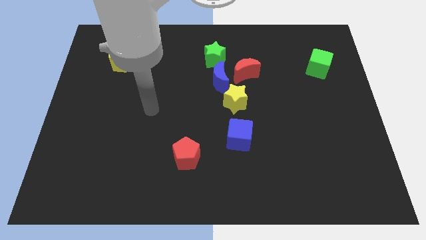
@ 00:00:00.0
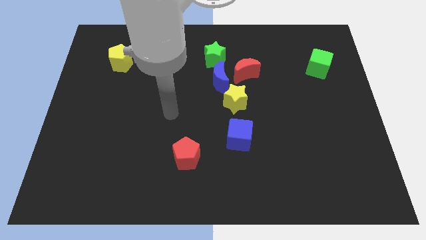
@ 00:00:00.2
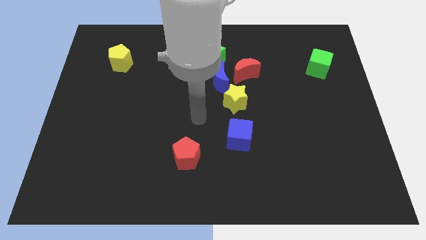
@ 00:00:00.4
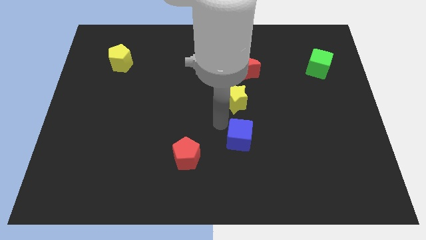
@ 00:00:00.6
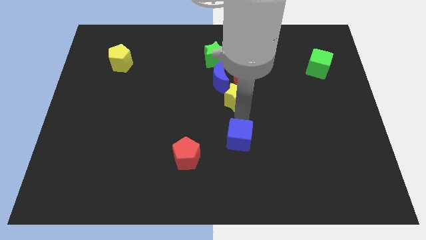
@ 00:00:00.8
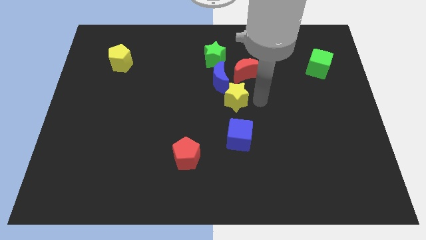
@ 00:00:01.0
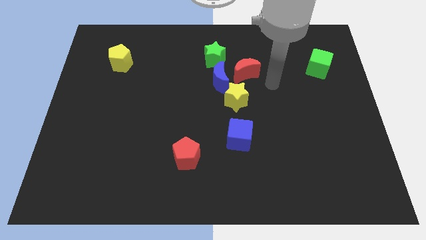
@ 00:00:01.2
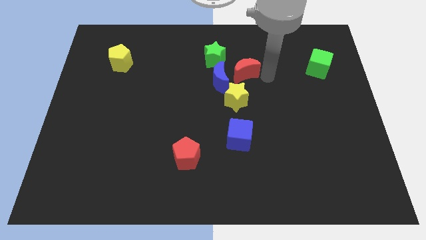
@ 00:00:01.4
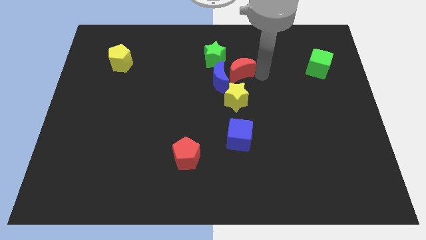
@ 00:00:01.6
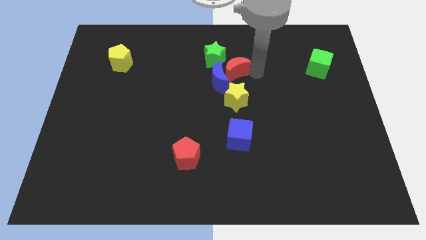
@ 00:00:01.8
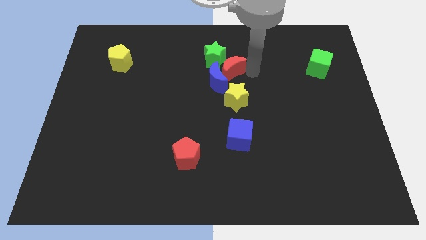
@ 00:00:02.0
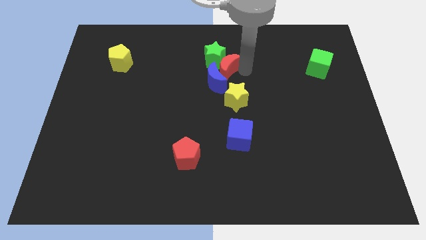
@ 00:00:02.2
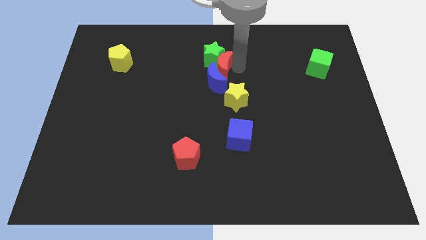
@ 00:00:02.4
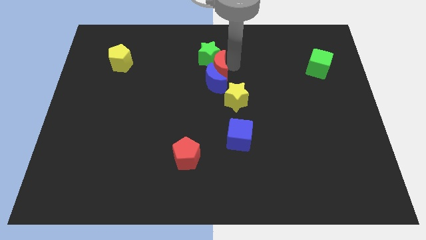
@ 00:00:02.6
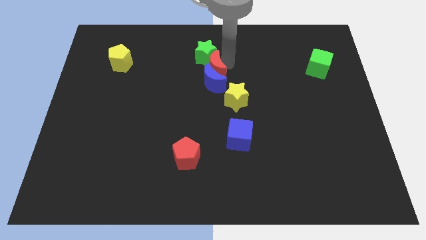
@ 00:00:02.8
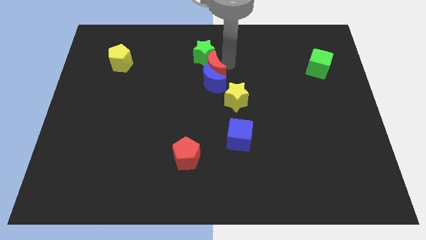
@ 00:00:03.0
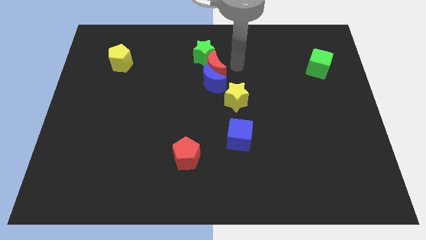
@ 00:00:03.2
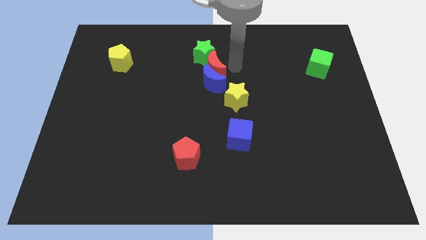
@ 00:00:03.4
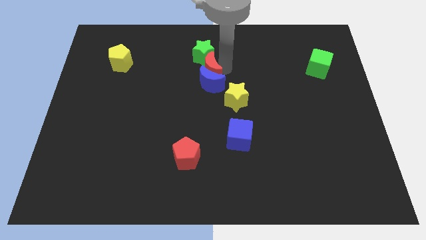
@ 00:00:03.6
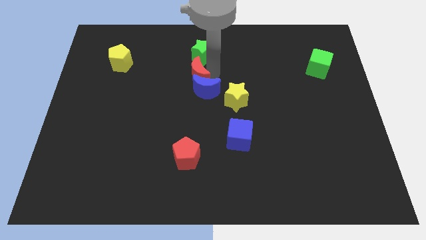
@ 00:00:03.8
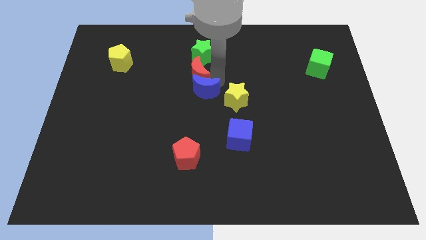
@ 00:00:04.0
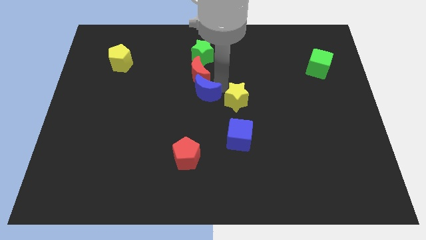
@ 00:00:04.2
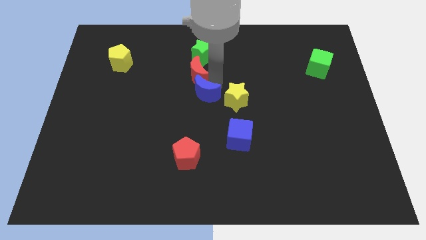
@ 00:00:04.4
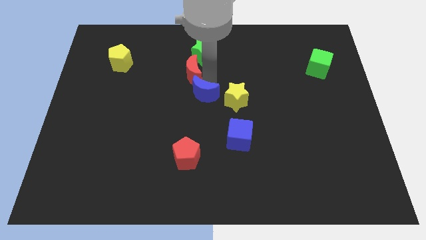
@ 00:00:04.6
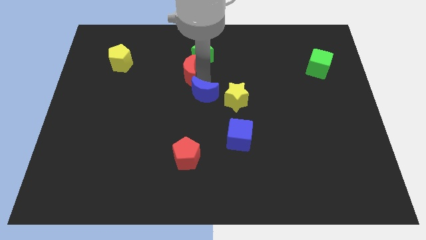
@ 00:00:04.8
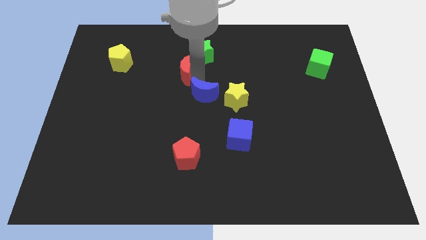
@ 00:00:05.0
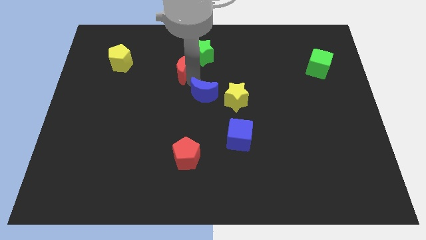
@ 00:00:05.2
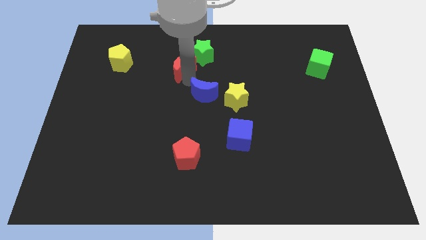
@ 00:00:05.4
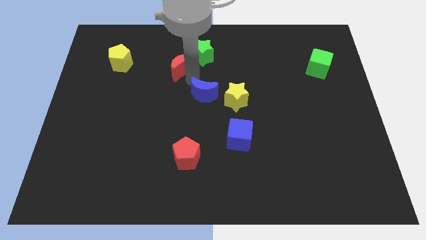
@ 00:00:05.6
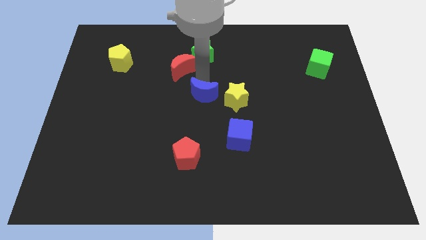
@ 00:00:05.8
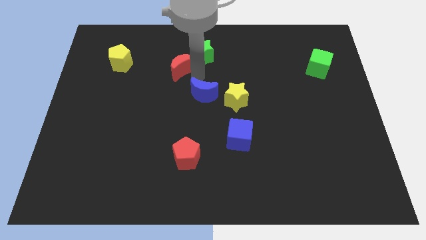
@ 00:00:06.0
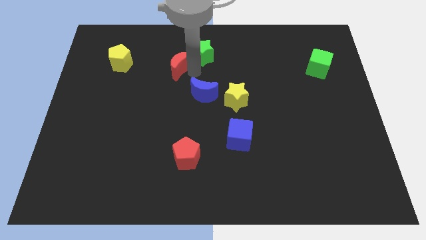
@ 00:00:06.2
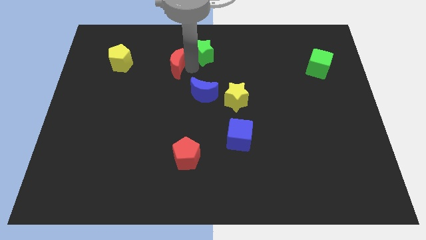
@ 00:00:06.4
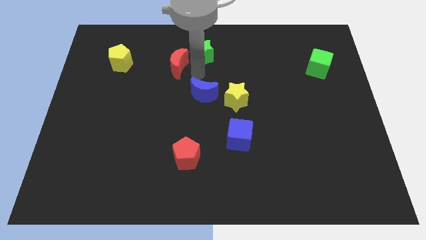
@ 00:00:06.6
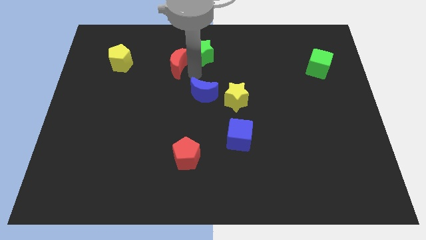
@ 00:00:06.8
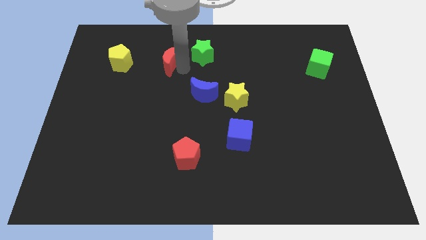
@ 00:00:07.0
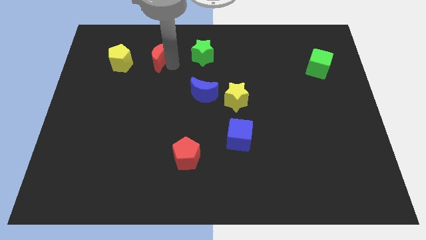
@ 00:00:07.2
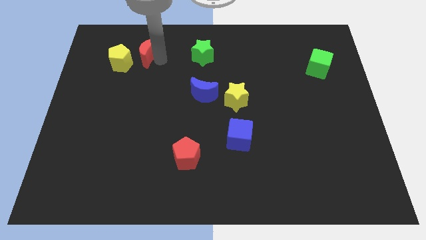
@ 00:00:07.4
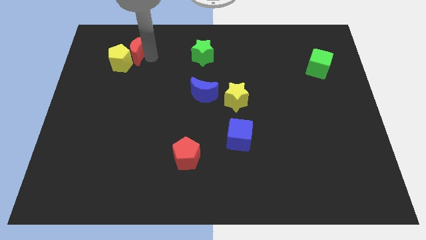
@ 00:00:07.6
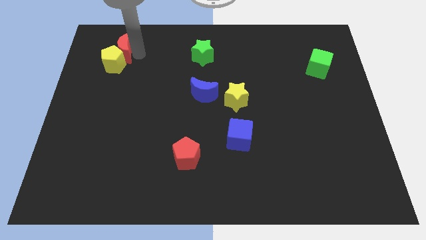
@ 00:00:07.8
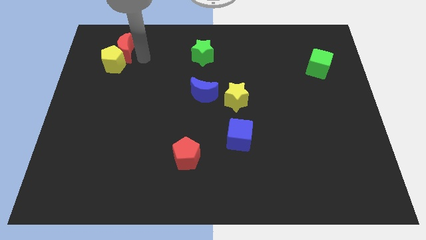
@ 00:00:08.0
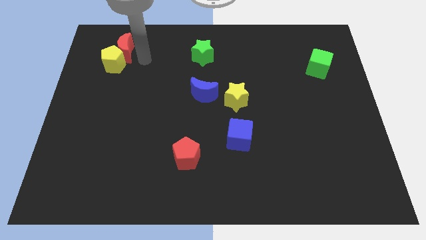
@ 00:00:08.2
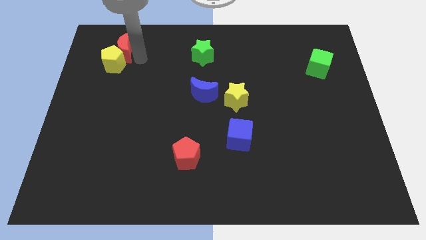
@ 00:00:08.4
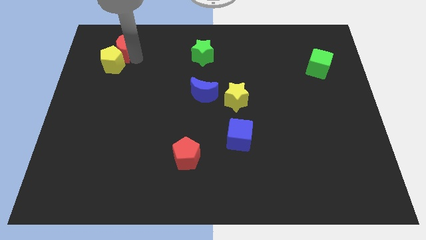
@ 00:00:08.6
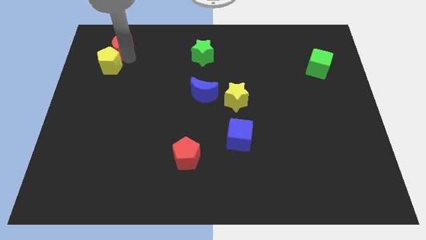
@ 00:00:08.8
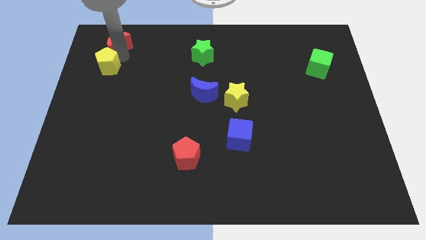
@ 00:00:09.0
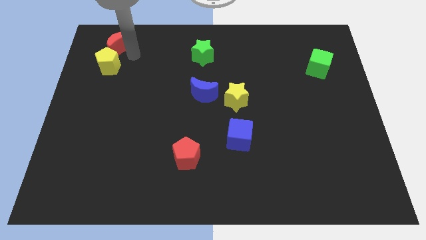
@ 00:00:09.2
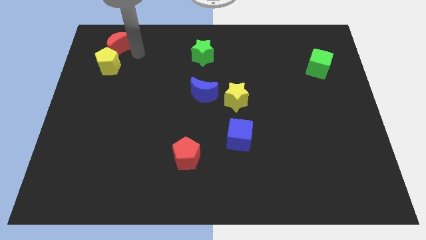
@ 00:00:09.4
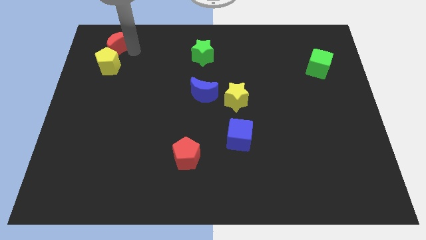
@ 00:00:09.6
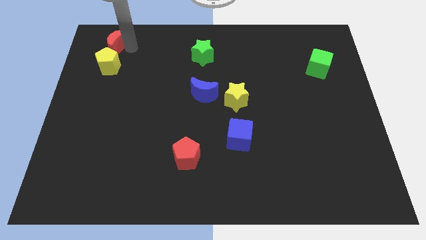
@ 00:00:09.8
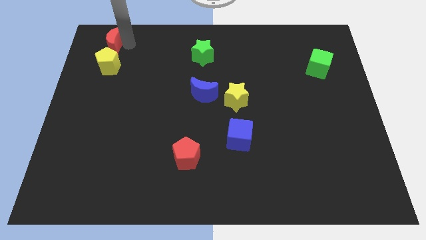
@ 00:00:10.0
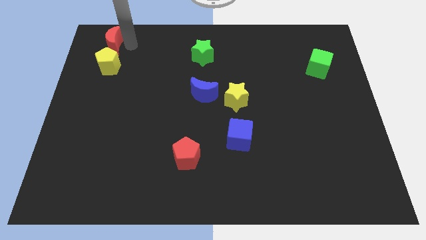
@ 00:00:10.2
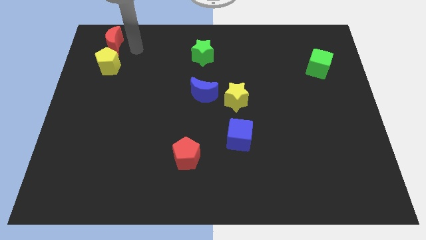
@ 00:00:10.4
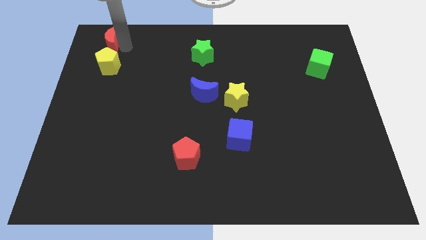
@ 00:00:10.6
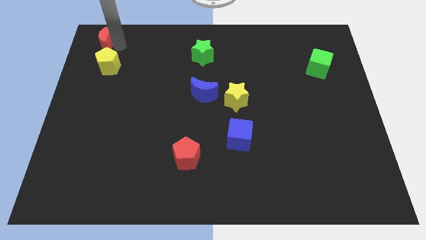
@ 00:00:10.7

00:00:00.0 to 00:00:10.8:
slide the red moon to the top left

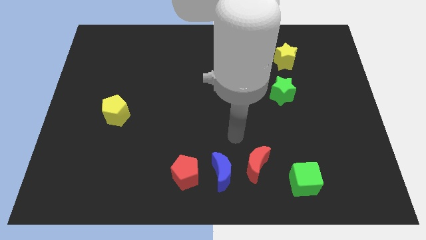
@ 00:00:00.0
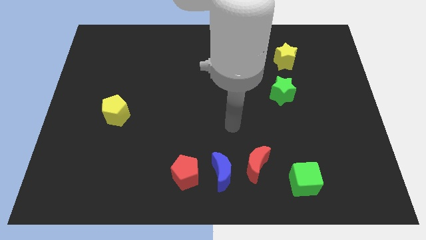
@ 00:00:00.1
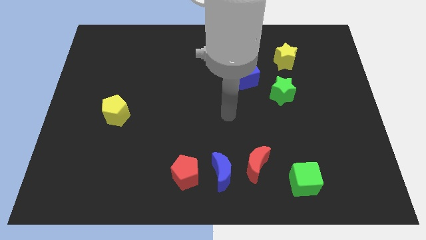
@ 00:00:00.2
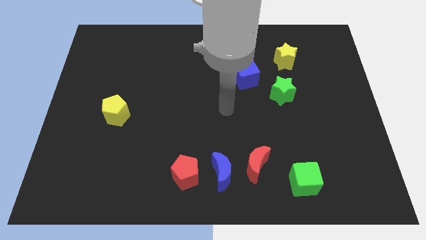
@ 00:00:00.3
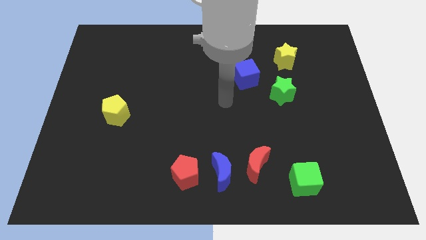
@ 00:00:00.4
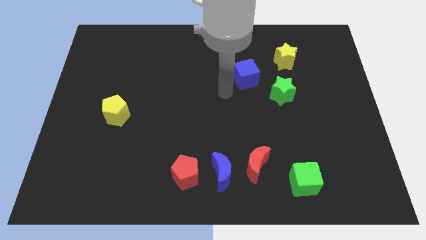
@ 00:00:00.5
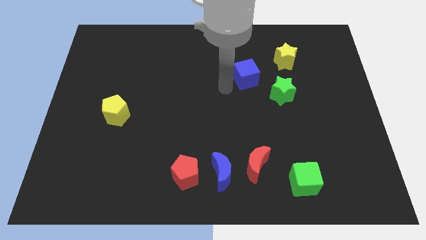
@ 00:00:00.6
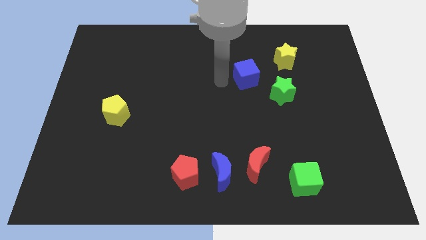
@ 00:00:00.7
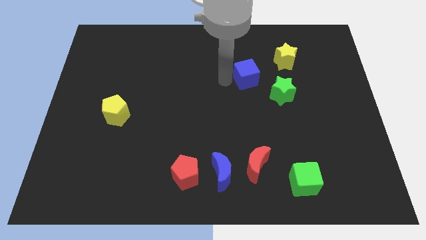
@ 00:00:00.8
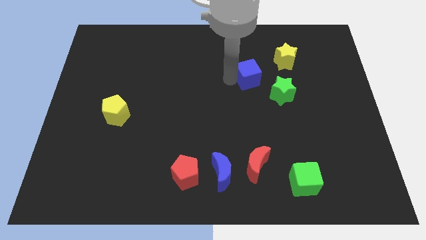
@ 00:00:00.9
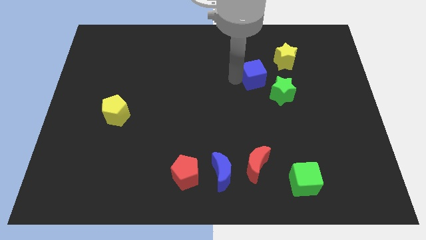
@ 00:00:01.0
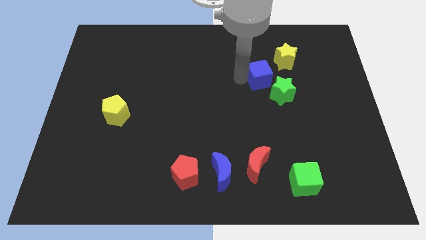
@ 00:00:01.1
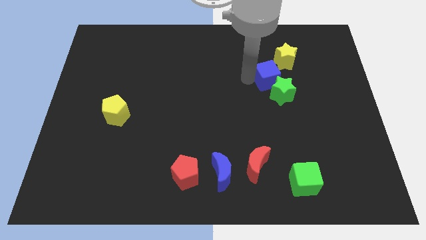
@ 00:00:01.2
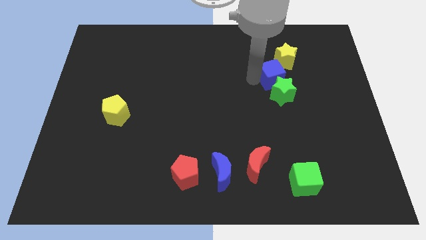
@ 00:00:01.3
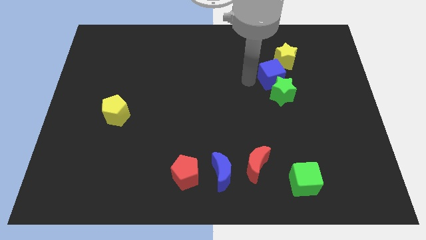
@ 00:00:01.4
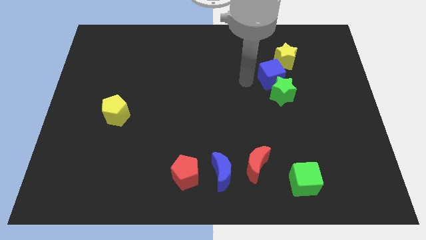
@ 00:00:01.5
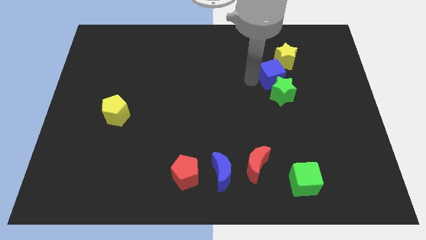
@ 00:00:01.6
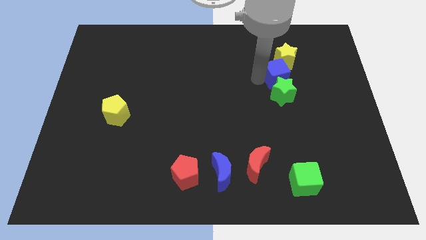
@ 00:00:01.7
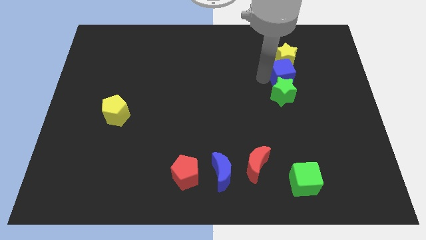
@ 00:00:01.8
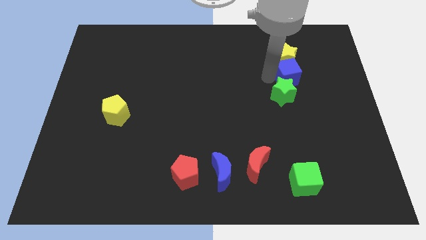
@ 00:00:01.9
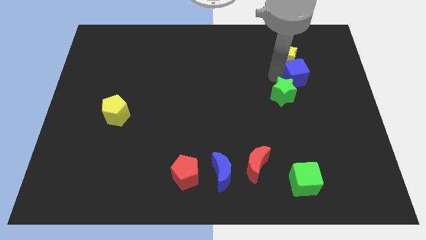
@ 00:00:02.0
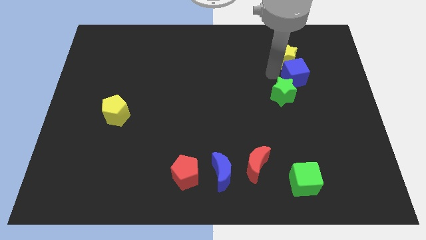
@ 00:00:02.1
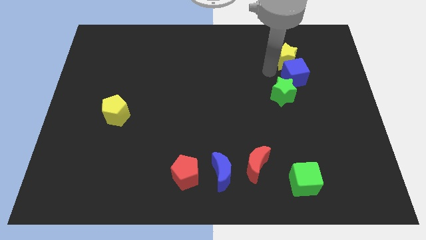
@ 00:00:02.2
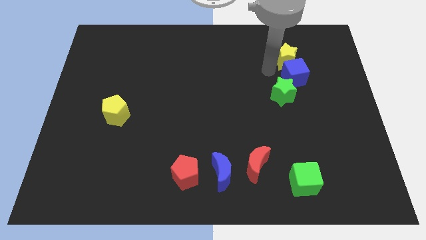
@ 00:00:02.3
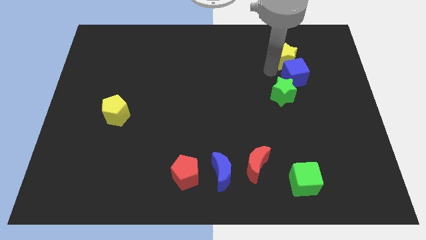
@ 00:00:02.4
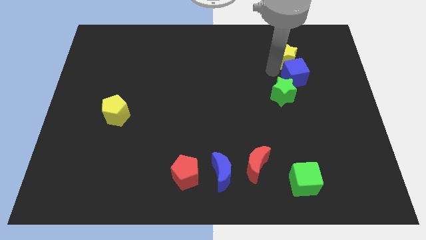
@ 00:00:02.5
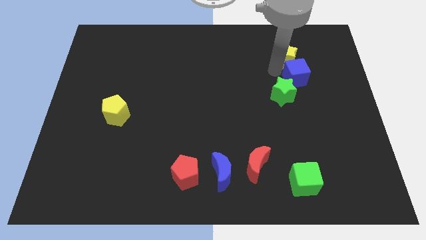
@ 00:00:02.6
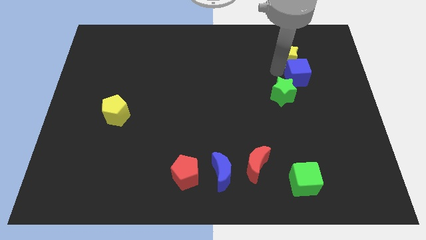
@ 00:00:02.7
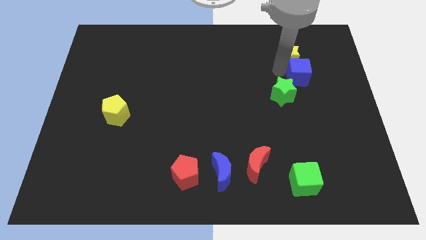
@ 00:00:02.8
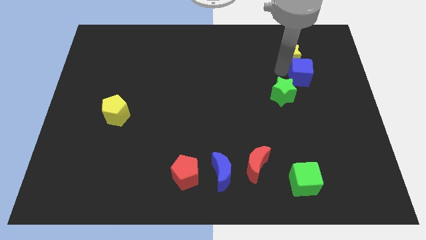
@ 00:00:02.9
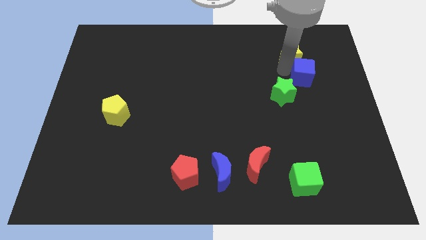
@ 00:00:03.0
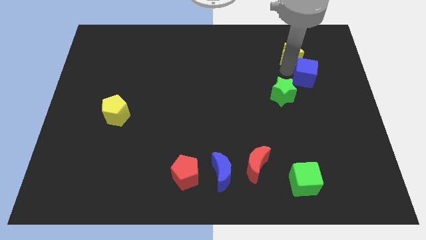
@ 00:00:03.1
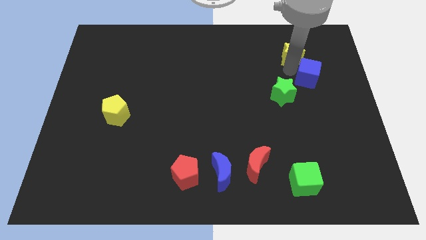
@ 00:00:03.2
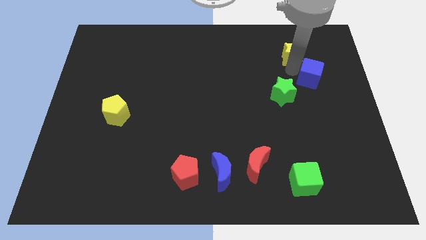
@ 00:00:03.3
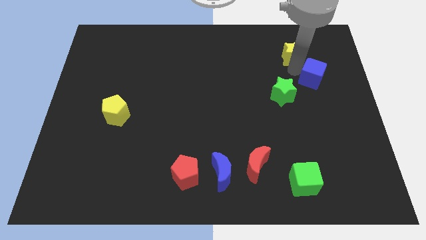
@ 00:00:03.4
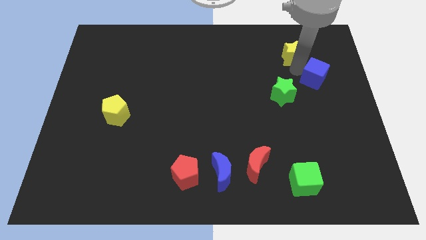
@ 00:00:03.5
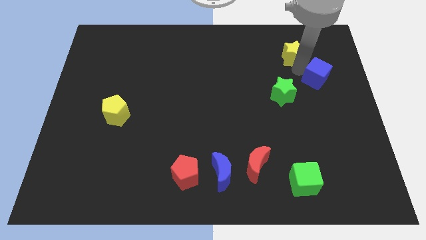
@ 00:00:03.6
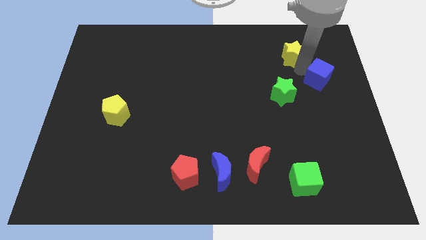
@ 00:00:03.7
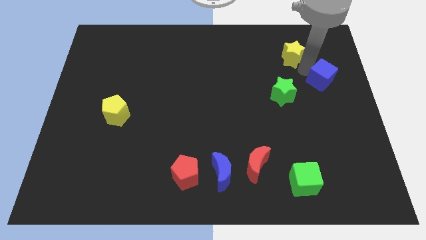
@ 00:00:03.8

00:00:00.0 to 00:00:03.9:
push the blue cube to the right side
